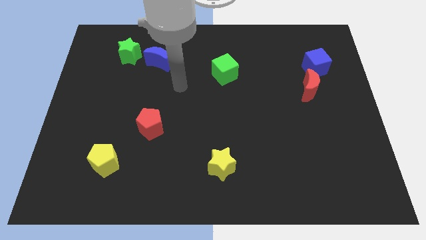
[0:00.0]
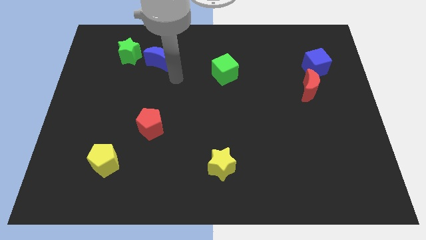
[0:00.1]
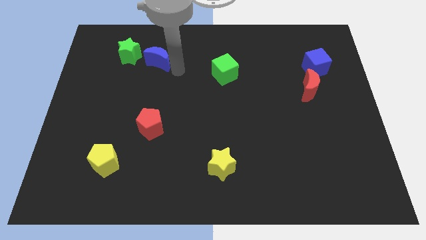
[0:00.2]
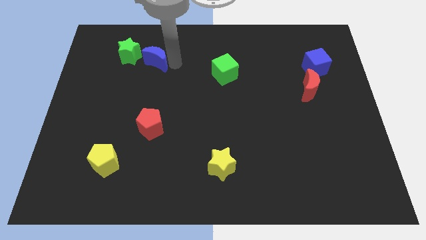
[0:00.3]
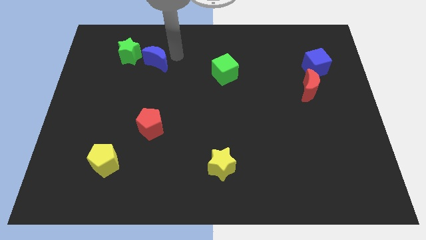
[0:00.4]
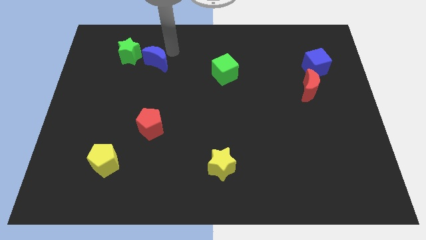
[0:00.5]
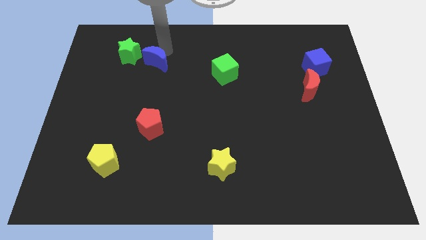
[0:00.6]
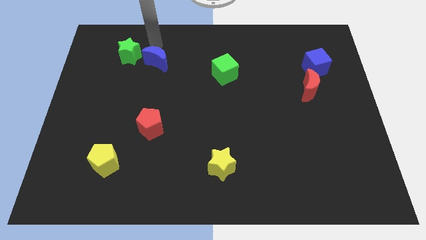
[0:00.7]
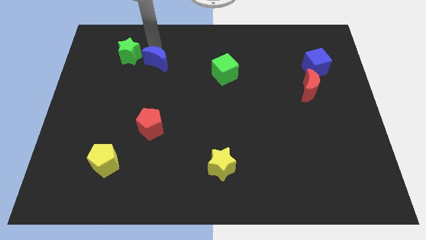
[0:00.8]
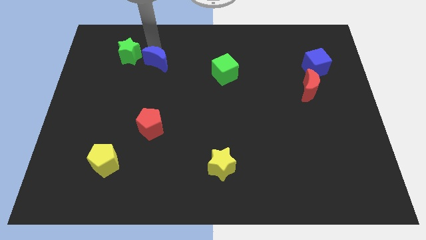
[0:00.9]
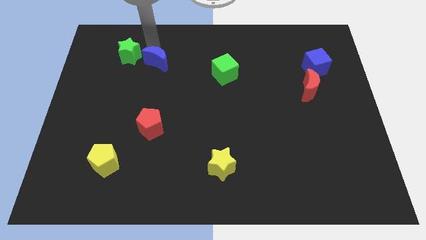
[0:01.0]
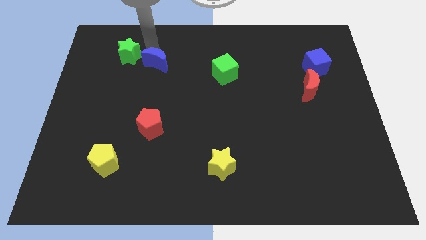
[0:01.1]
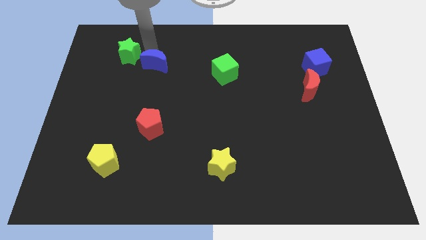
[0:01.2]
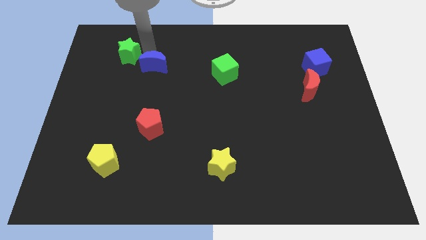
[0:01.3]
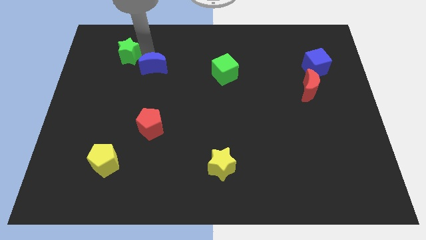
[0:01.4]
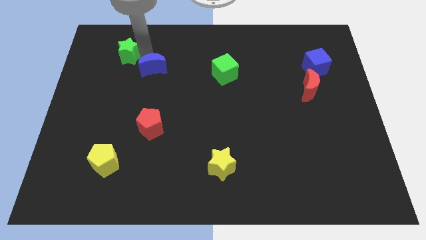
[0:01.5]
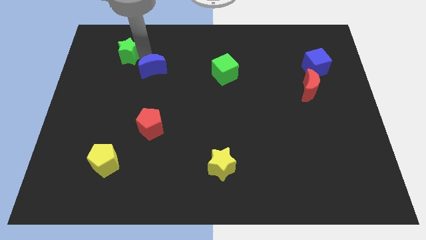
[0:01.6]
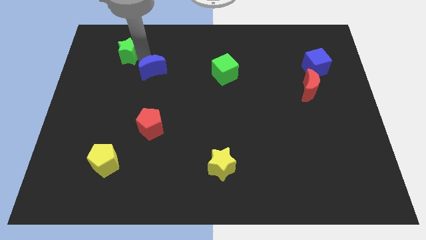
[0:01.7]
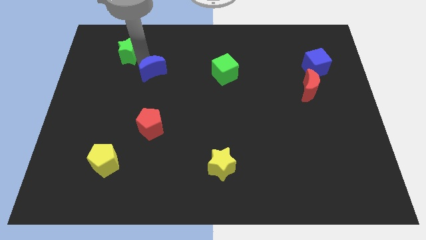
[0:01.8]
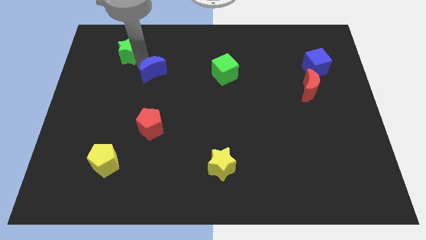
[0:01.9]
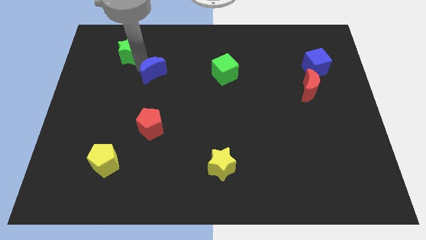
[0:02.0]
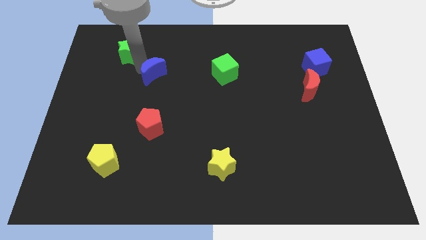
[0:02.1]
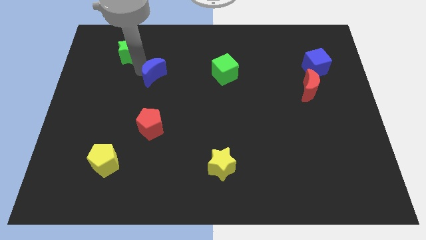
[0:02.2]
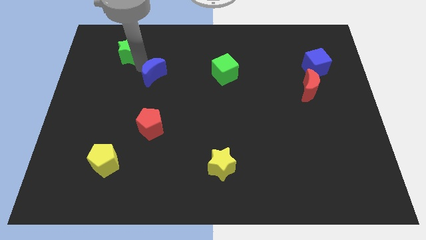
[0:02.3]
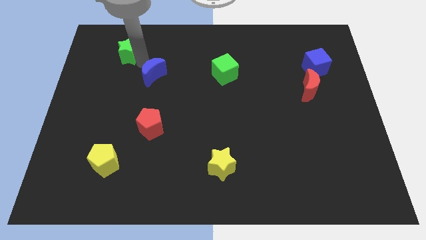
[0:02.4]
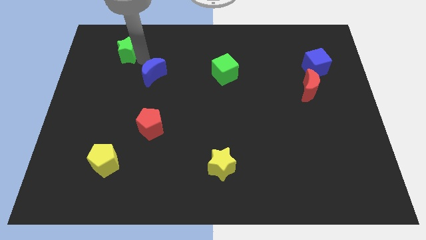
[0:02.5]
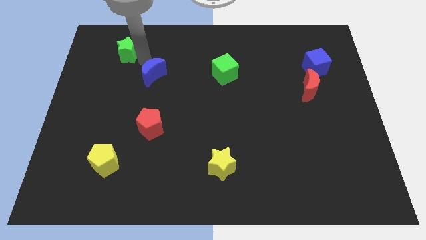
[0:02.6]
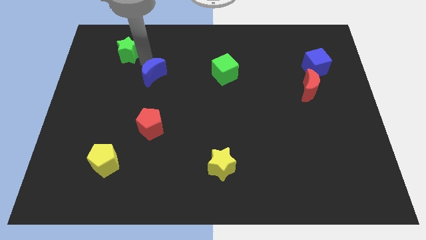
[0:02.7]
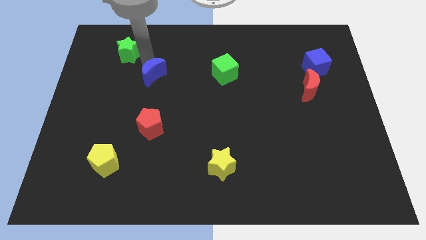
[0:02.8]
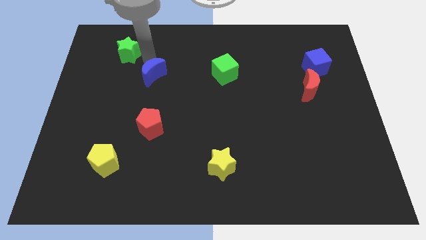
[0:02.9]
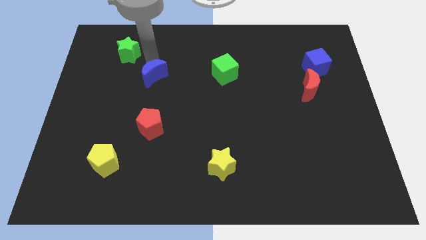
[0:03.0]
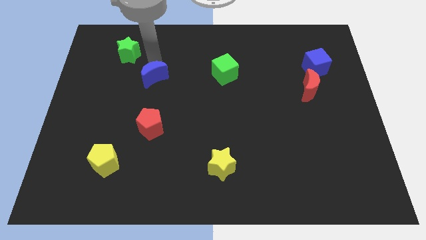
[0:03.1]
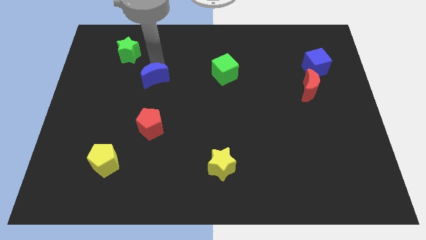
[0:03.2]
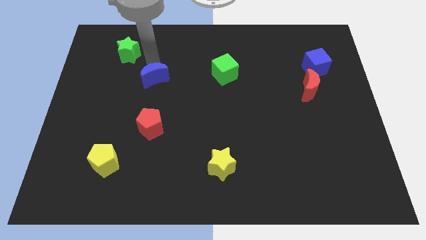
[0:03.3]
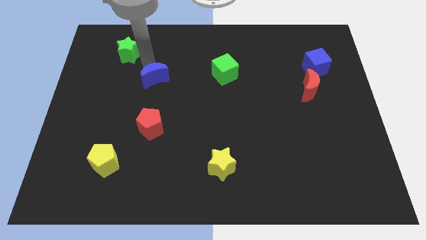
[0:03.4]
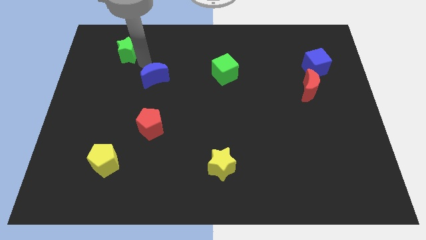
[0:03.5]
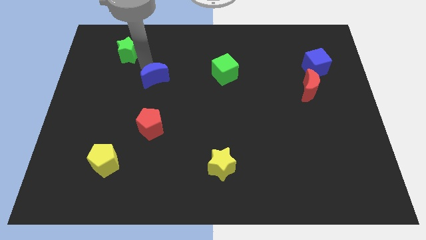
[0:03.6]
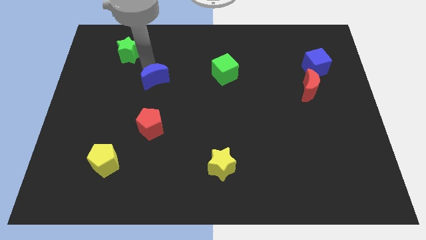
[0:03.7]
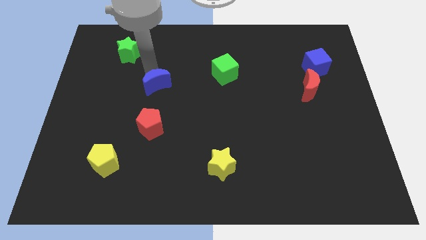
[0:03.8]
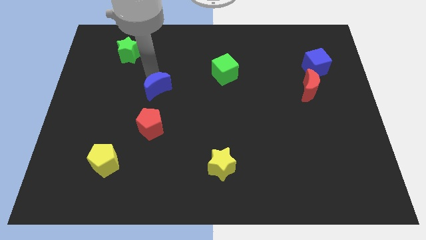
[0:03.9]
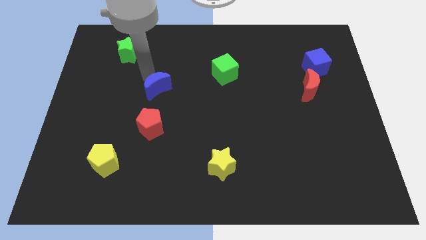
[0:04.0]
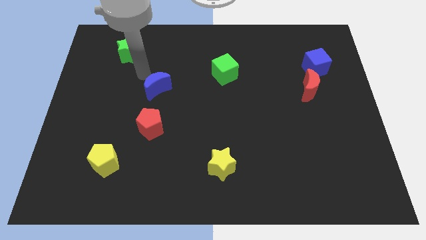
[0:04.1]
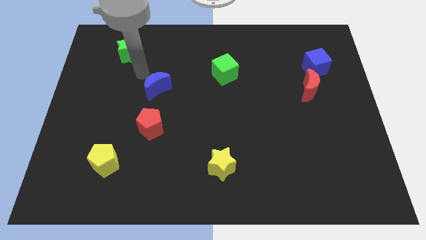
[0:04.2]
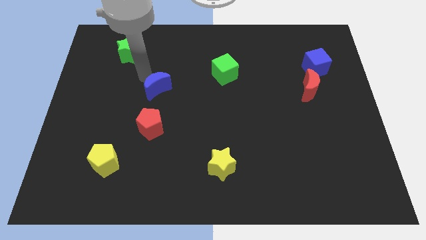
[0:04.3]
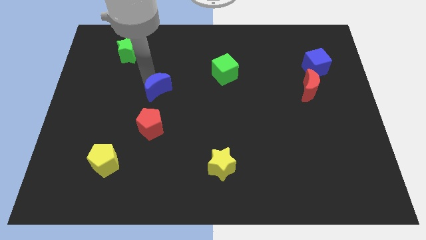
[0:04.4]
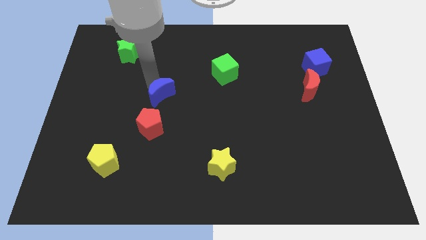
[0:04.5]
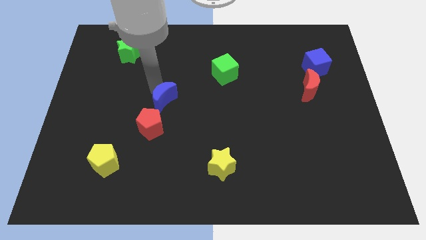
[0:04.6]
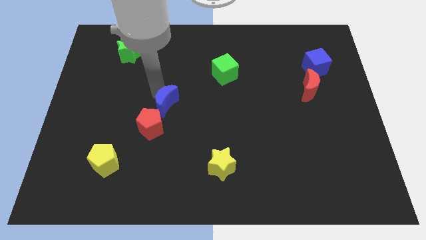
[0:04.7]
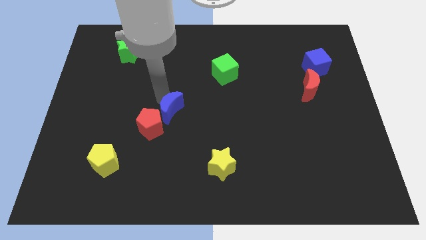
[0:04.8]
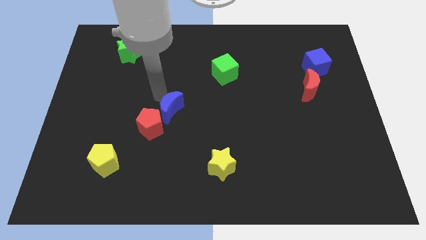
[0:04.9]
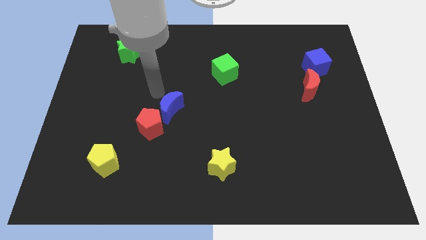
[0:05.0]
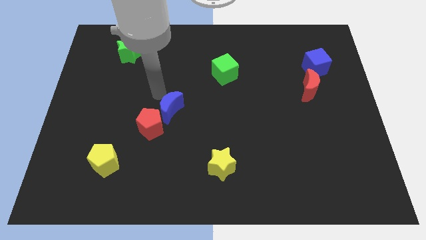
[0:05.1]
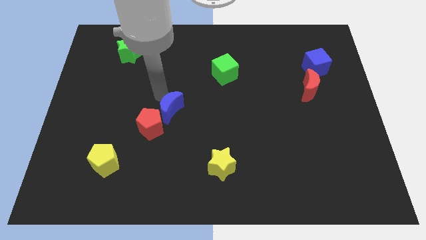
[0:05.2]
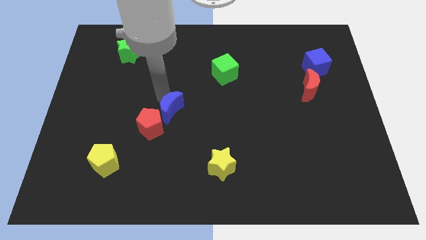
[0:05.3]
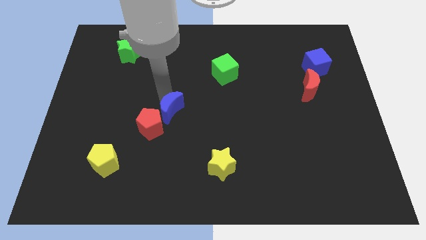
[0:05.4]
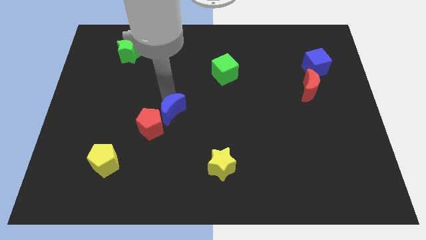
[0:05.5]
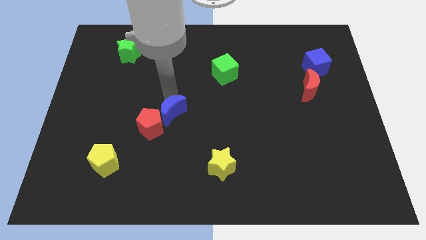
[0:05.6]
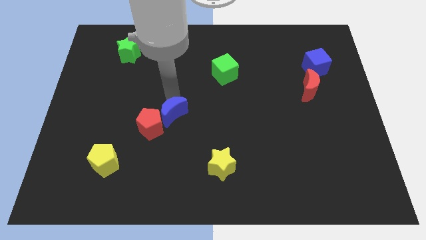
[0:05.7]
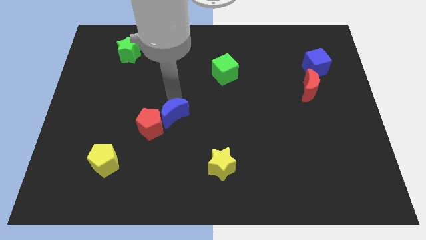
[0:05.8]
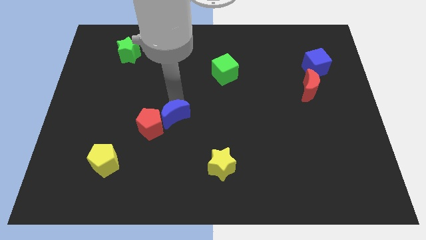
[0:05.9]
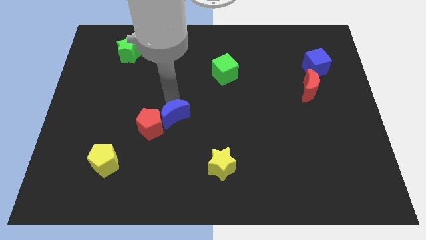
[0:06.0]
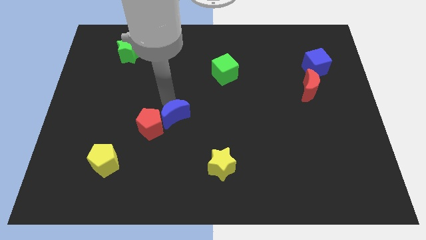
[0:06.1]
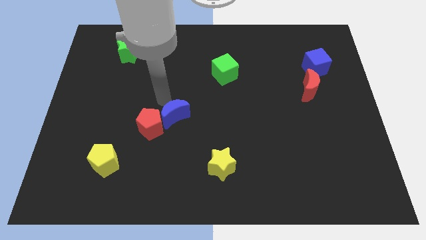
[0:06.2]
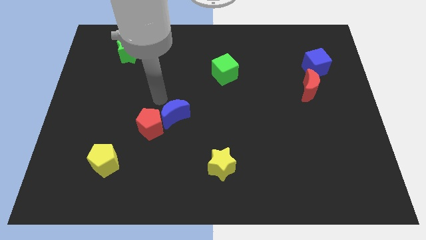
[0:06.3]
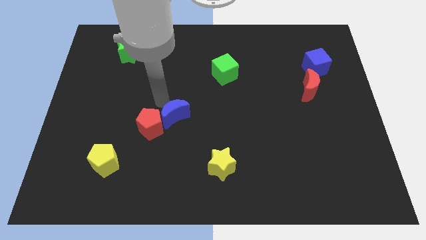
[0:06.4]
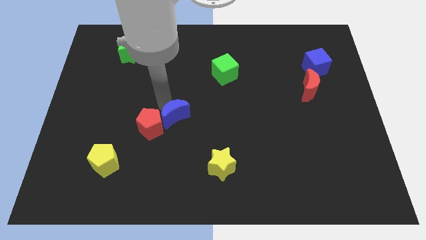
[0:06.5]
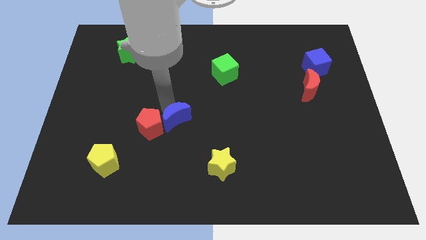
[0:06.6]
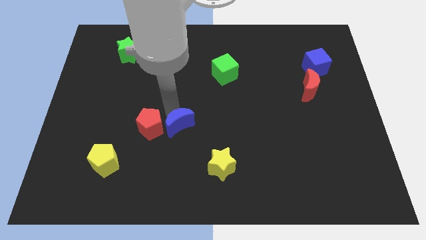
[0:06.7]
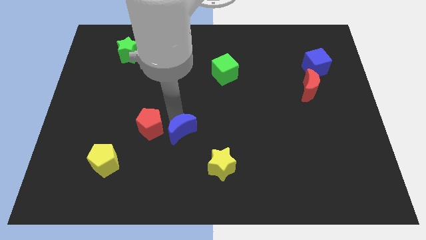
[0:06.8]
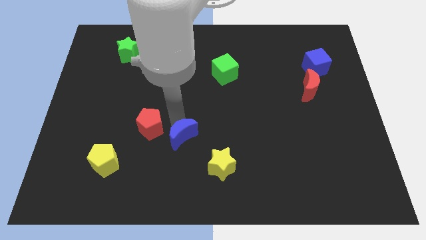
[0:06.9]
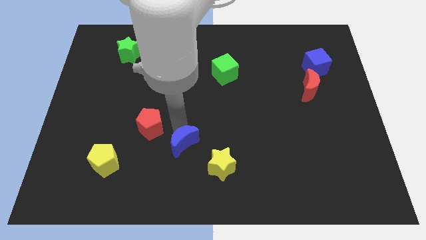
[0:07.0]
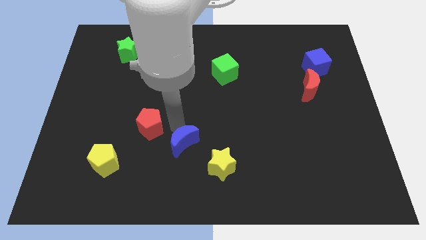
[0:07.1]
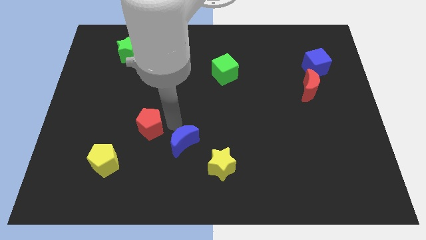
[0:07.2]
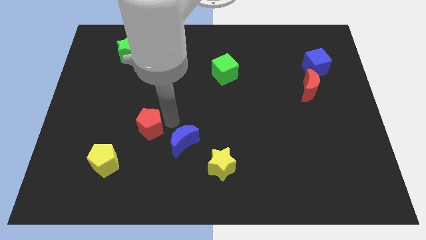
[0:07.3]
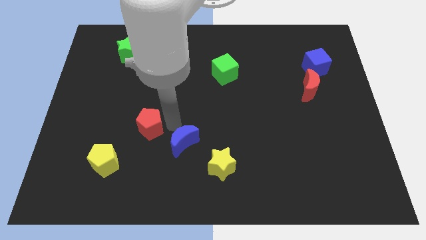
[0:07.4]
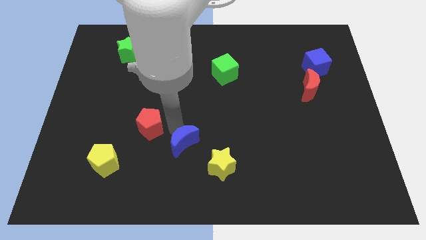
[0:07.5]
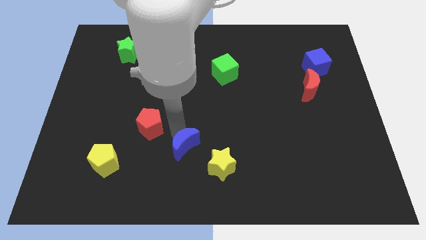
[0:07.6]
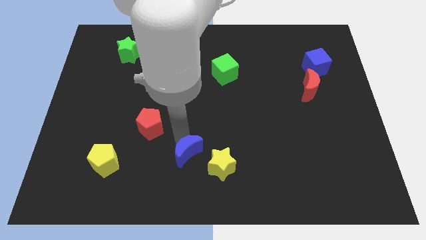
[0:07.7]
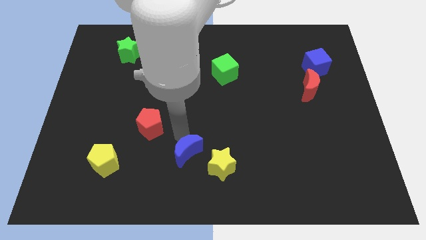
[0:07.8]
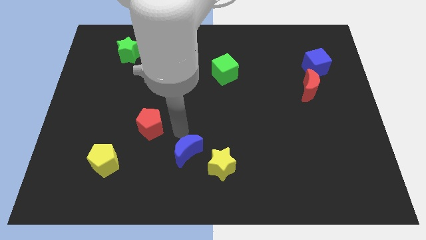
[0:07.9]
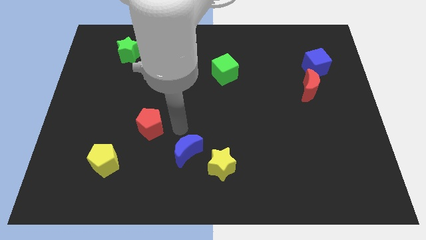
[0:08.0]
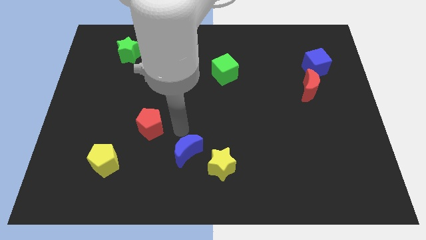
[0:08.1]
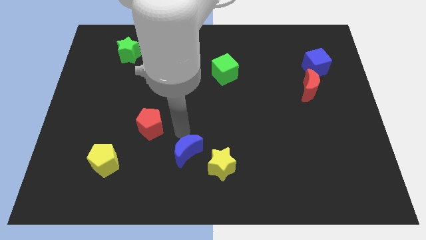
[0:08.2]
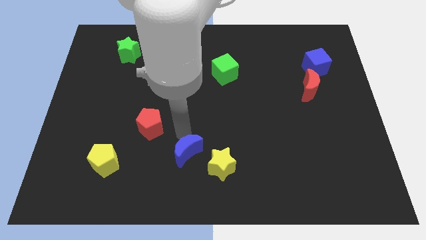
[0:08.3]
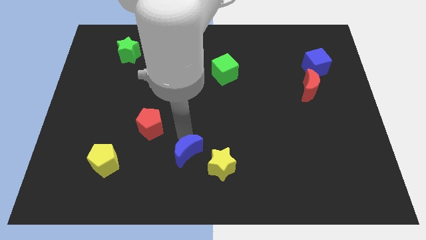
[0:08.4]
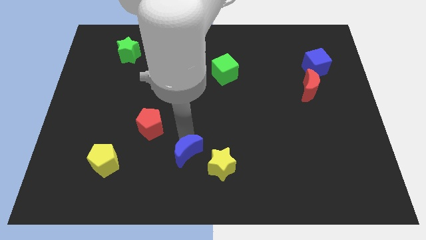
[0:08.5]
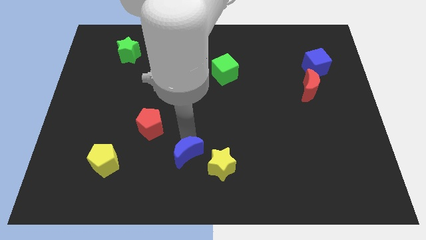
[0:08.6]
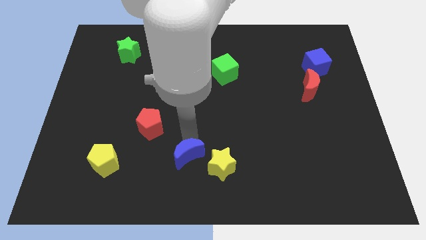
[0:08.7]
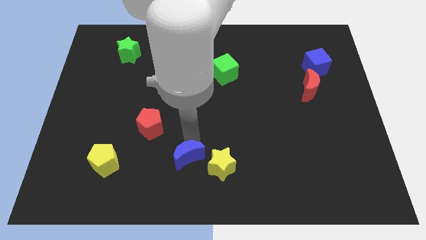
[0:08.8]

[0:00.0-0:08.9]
move the blue moon to the bottom
